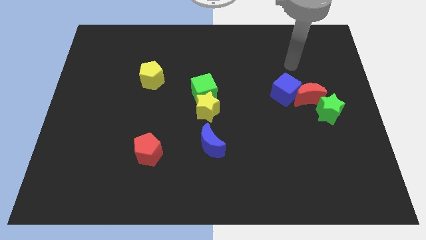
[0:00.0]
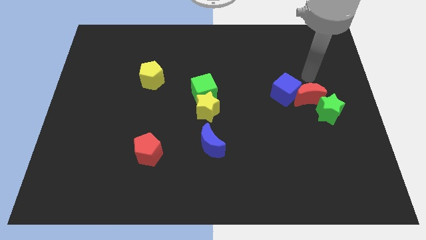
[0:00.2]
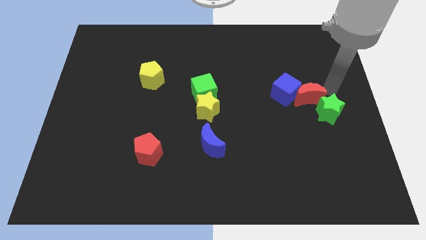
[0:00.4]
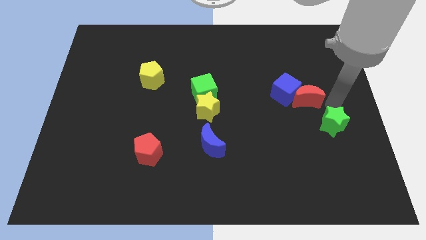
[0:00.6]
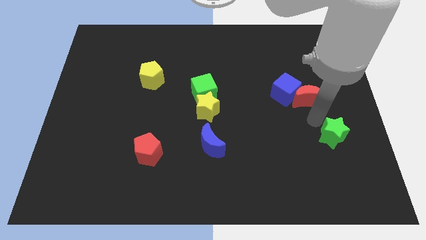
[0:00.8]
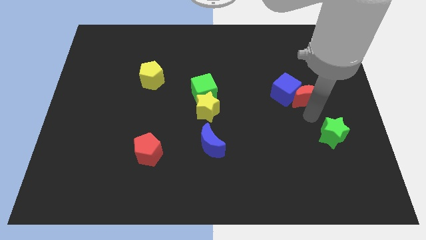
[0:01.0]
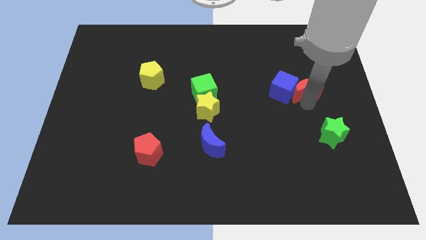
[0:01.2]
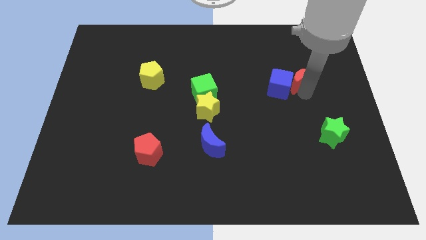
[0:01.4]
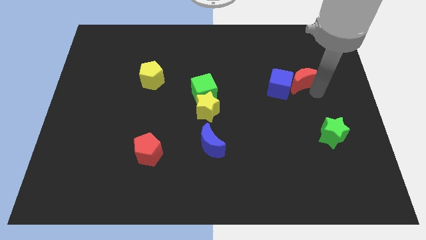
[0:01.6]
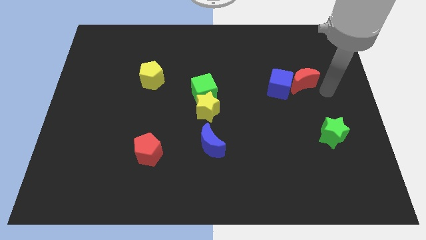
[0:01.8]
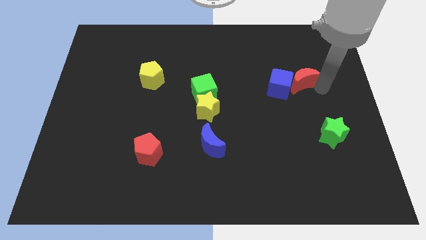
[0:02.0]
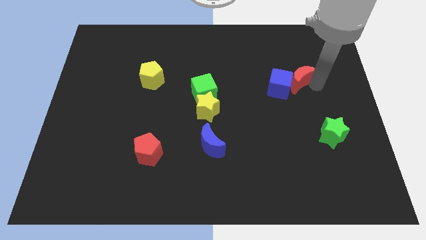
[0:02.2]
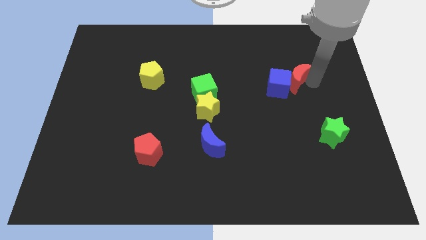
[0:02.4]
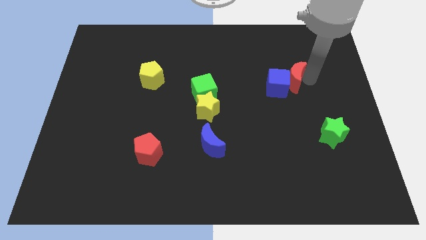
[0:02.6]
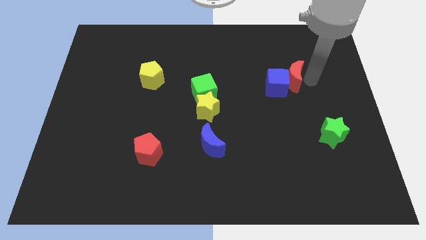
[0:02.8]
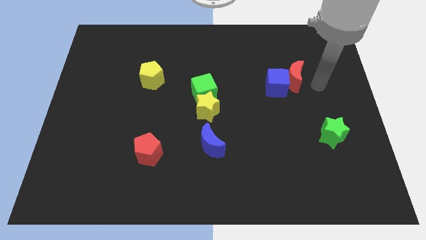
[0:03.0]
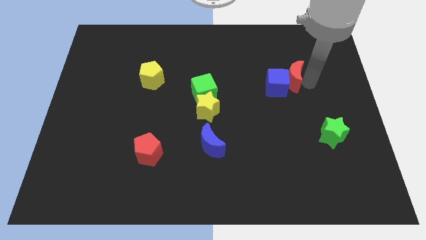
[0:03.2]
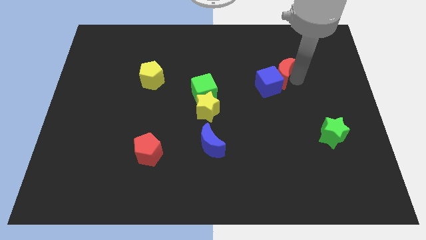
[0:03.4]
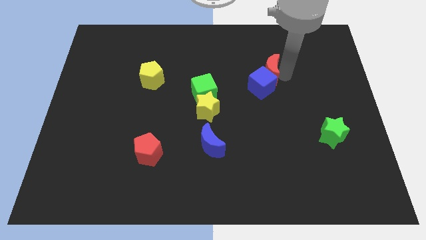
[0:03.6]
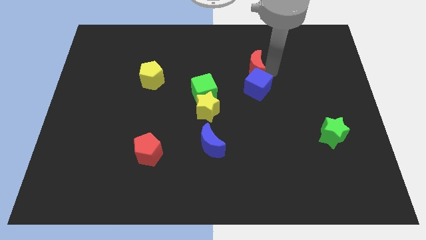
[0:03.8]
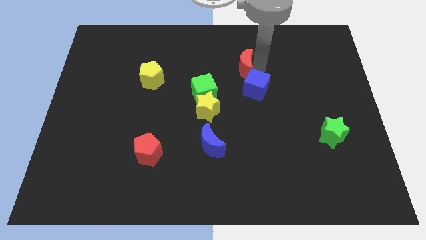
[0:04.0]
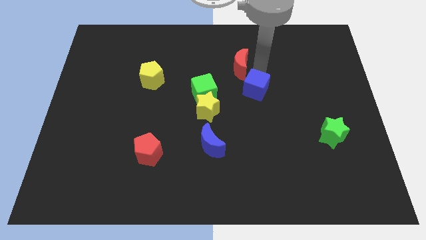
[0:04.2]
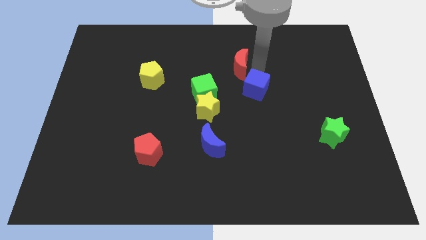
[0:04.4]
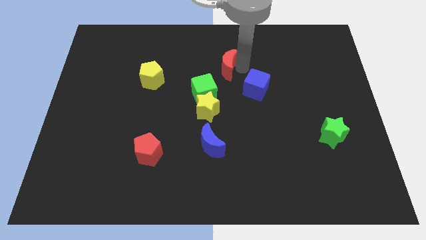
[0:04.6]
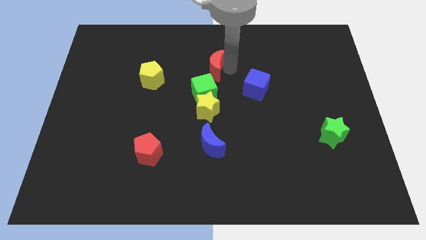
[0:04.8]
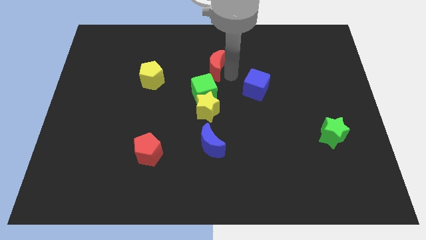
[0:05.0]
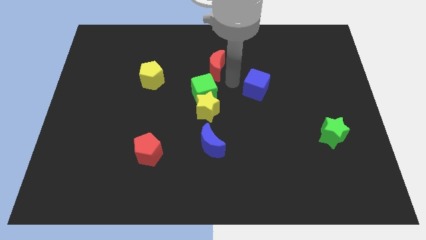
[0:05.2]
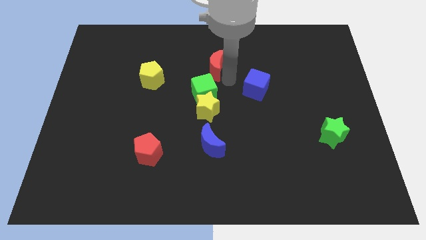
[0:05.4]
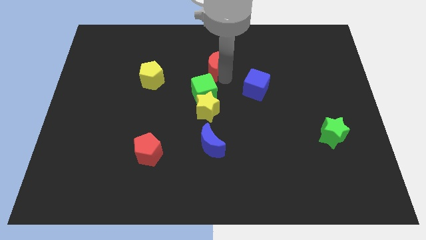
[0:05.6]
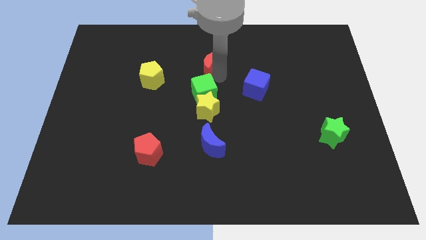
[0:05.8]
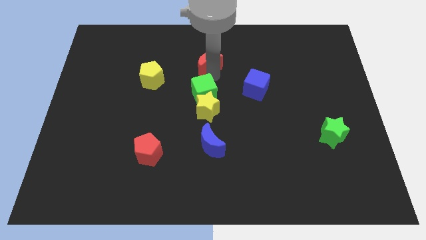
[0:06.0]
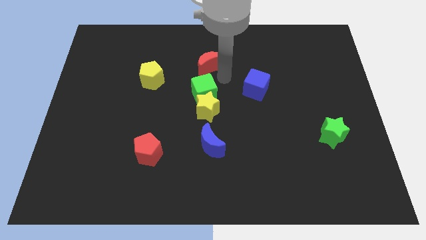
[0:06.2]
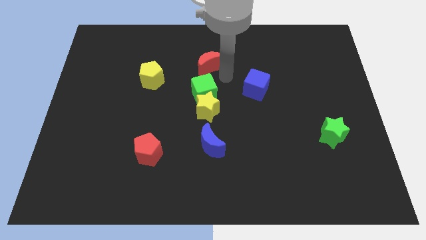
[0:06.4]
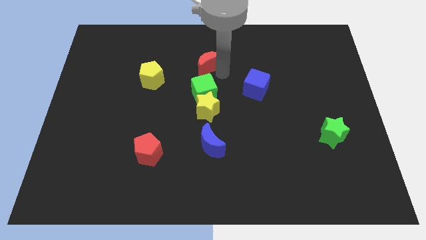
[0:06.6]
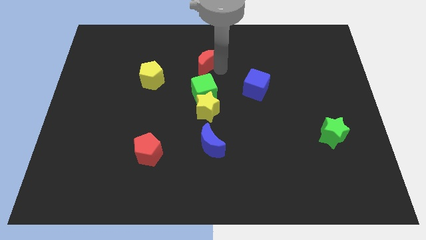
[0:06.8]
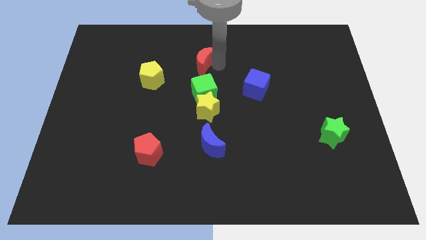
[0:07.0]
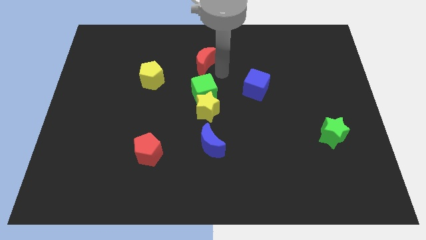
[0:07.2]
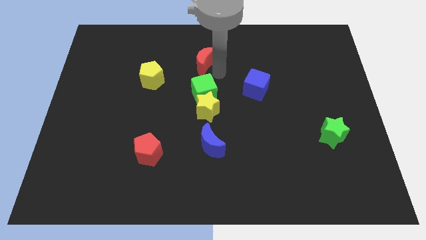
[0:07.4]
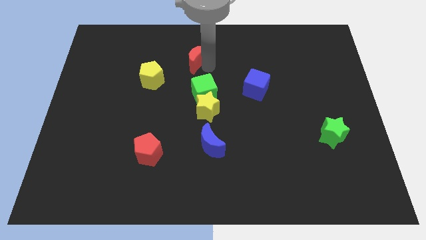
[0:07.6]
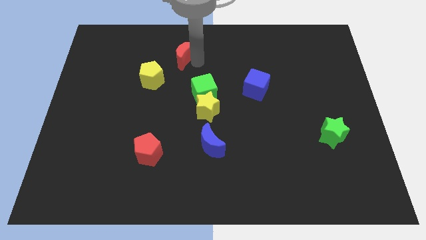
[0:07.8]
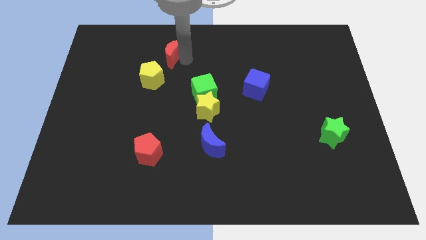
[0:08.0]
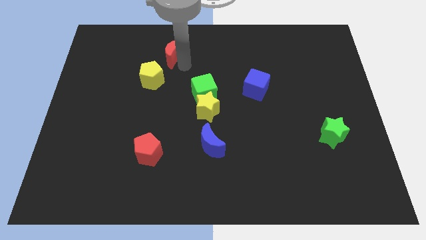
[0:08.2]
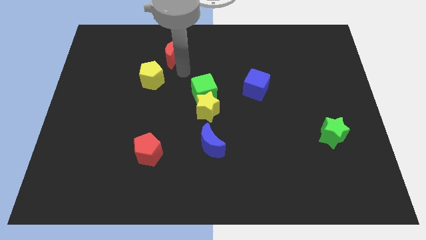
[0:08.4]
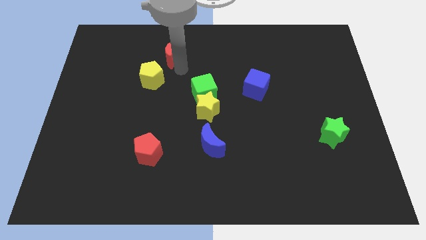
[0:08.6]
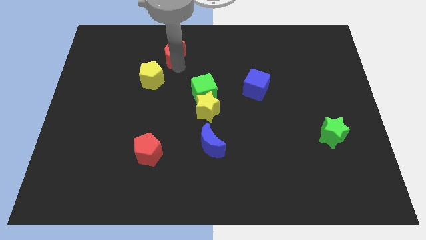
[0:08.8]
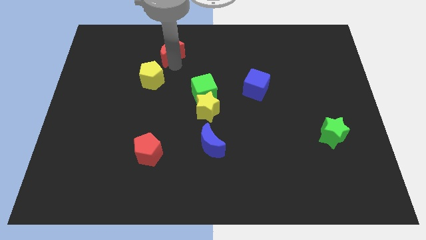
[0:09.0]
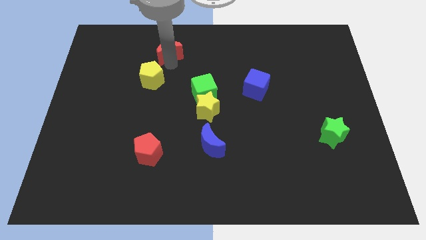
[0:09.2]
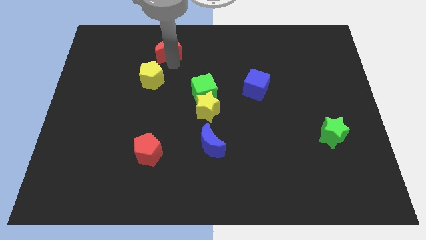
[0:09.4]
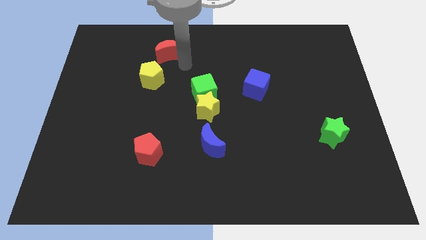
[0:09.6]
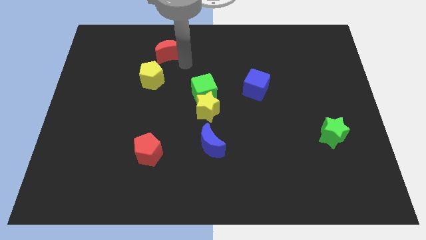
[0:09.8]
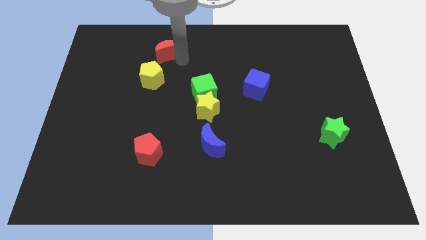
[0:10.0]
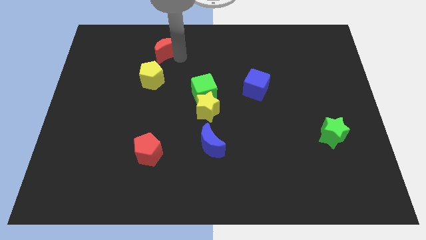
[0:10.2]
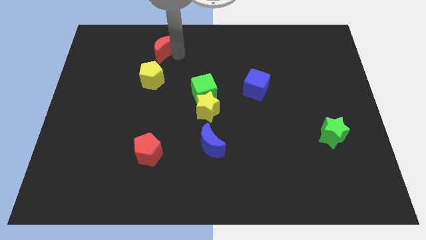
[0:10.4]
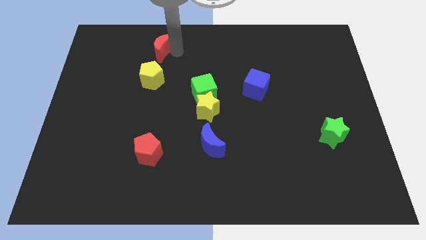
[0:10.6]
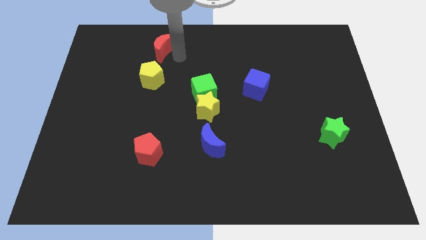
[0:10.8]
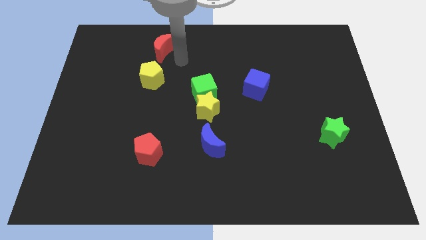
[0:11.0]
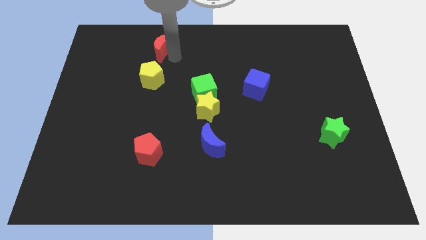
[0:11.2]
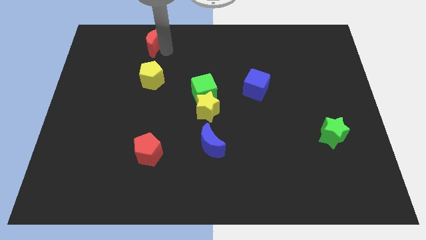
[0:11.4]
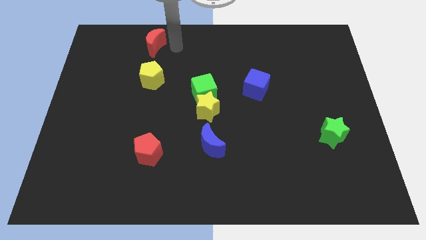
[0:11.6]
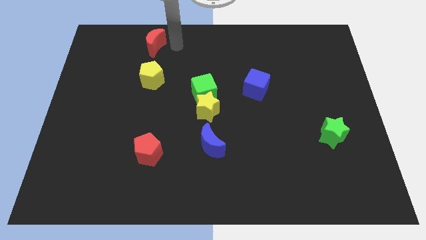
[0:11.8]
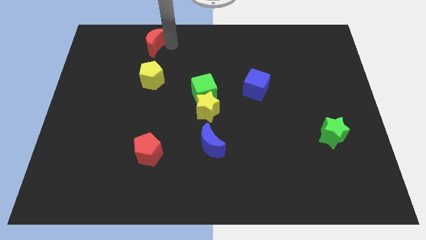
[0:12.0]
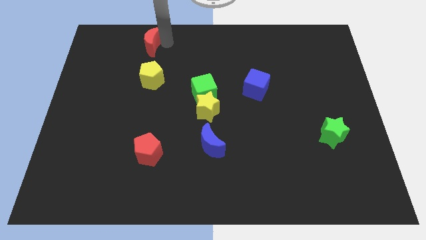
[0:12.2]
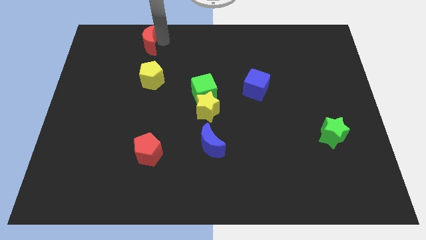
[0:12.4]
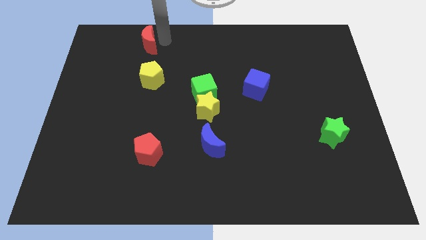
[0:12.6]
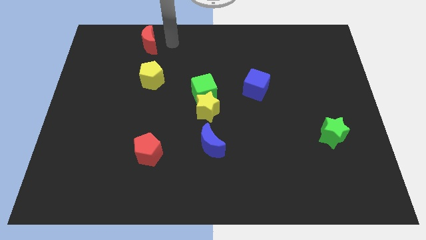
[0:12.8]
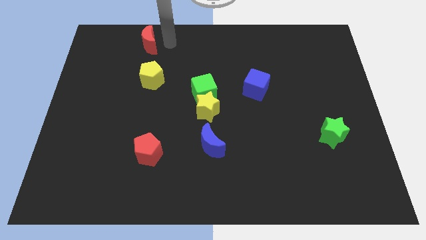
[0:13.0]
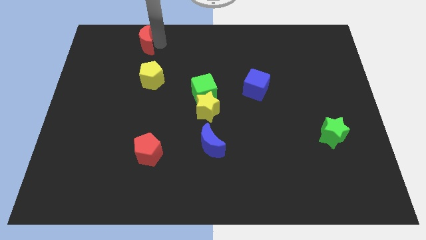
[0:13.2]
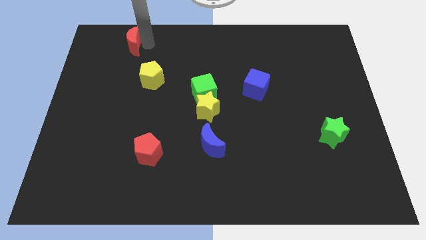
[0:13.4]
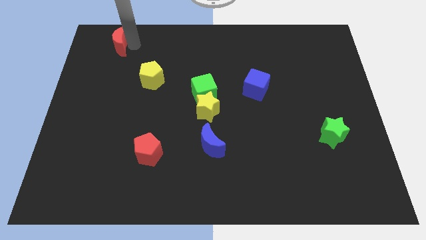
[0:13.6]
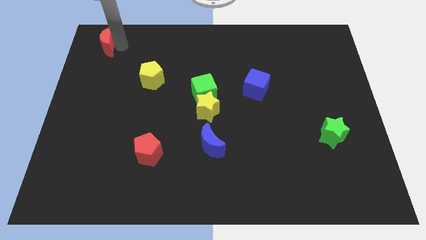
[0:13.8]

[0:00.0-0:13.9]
move the red moon to the top left of the board

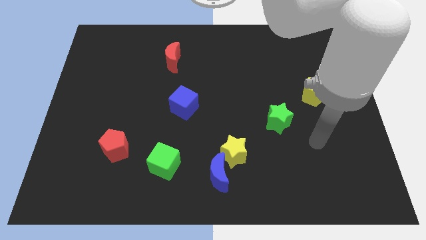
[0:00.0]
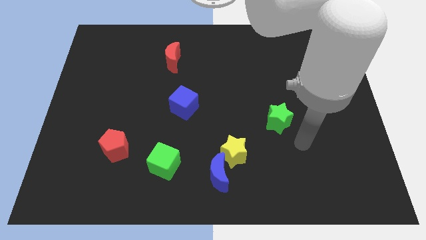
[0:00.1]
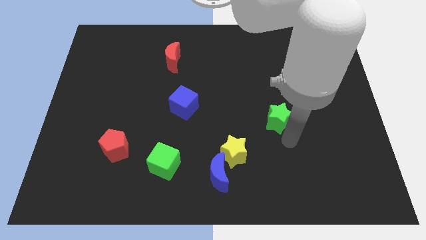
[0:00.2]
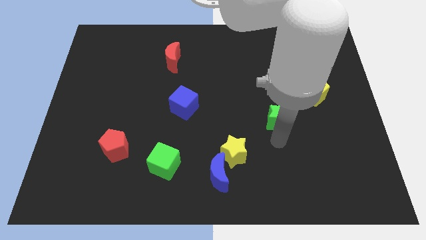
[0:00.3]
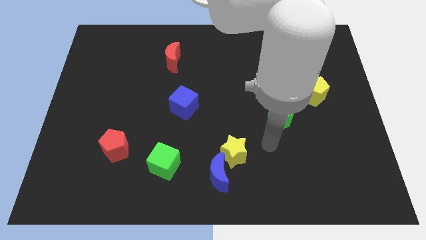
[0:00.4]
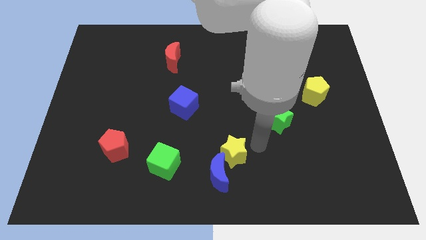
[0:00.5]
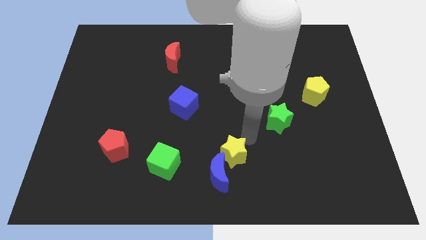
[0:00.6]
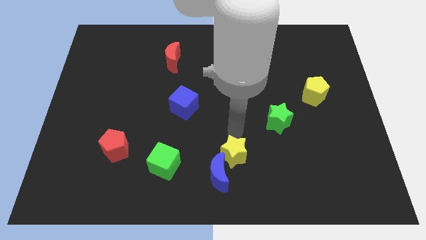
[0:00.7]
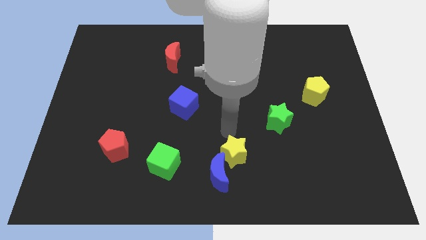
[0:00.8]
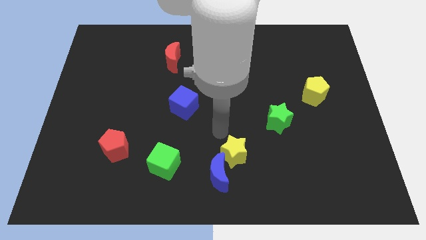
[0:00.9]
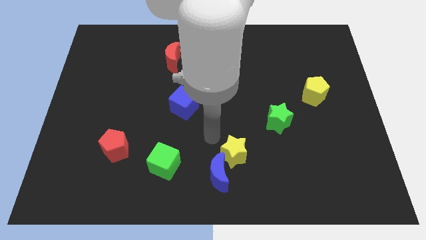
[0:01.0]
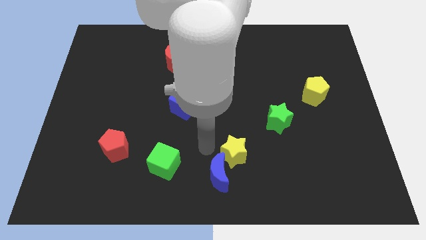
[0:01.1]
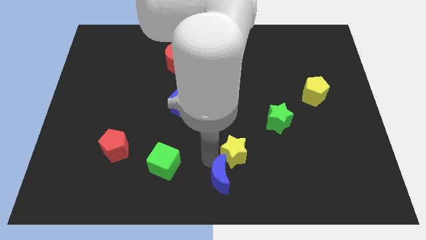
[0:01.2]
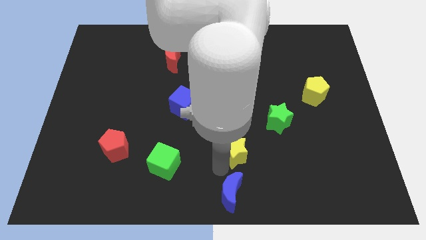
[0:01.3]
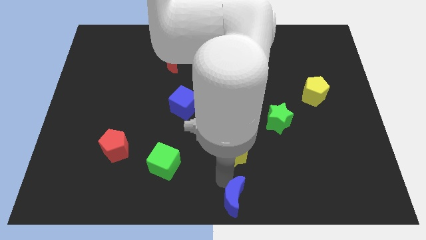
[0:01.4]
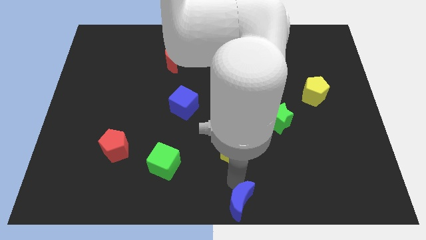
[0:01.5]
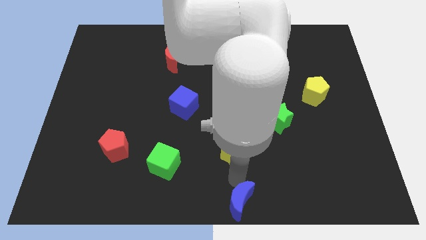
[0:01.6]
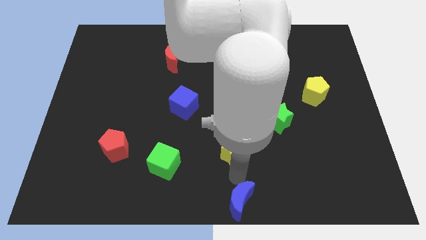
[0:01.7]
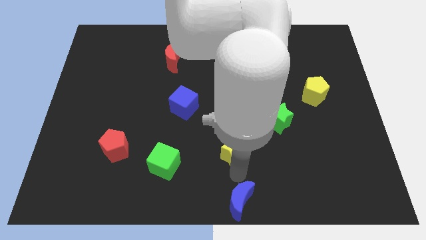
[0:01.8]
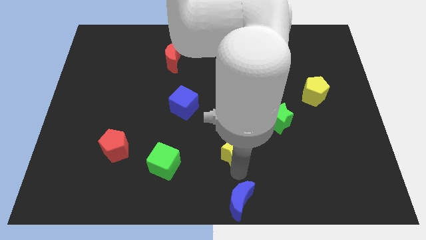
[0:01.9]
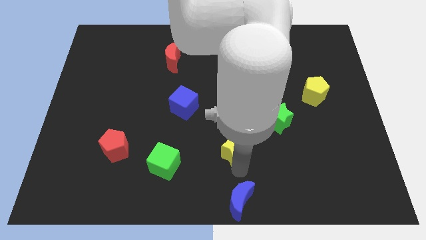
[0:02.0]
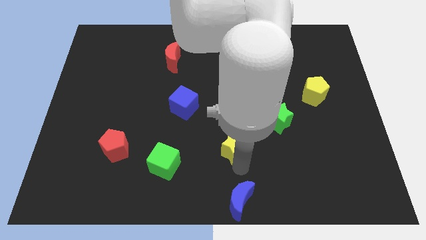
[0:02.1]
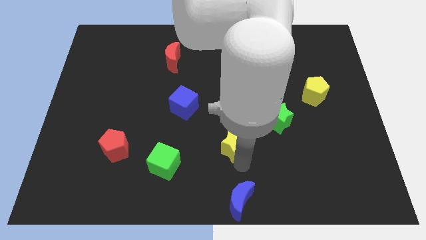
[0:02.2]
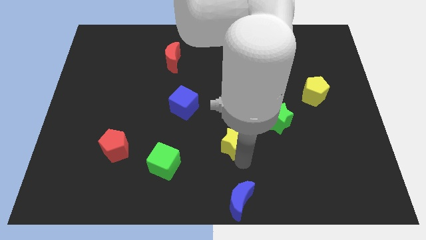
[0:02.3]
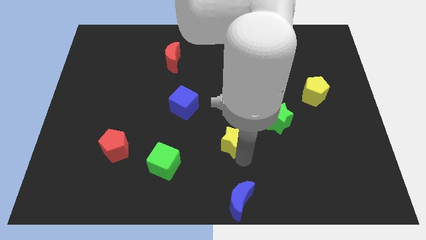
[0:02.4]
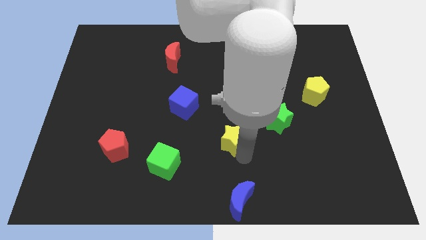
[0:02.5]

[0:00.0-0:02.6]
put the yellow star to the center
